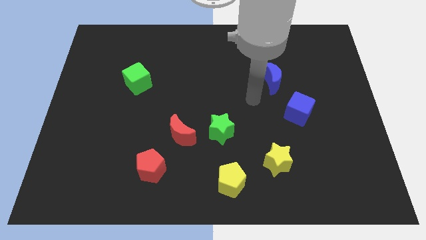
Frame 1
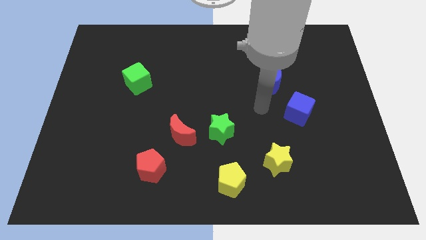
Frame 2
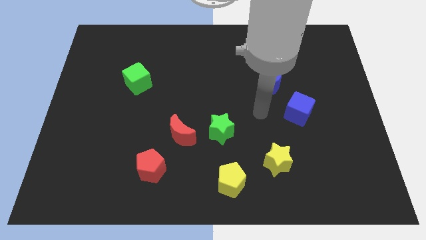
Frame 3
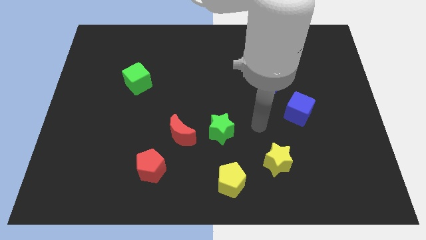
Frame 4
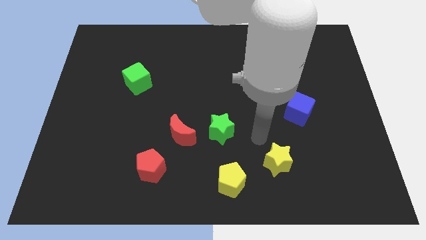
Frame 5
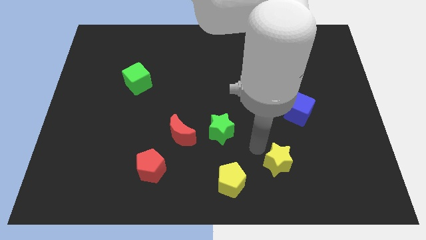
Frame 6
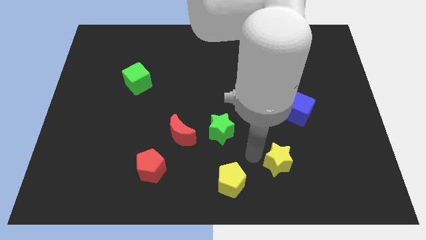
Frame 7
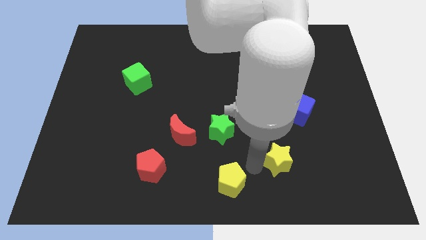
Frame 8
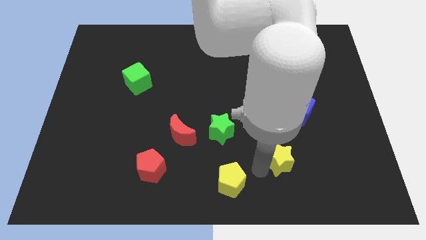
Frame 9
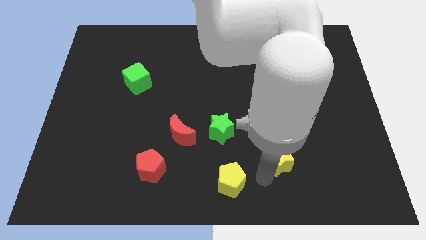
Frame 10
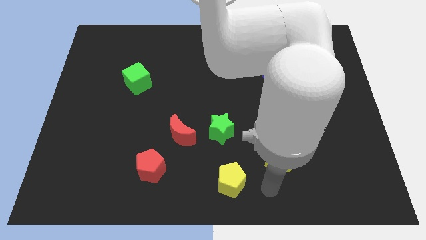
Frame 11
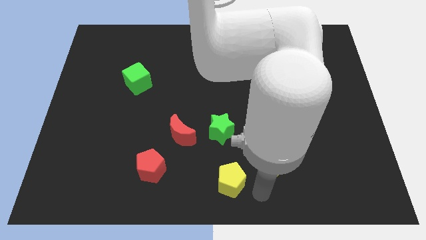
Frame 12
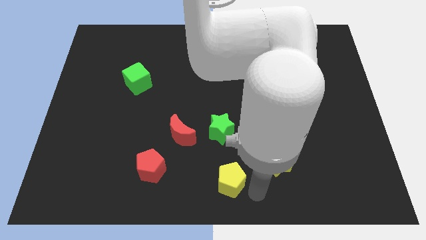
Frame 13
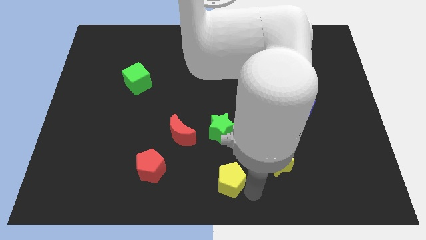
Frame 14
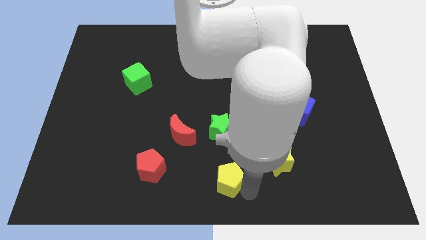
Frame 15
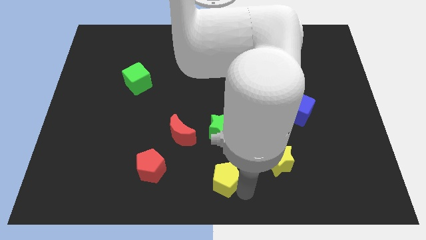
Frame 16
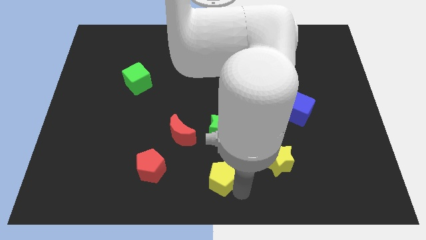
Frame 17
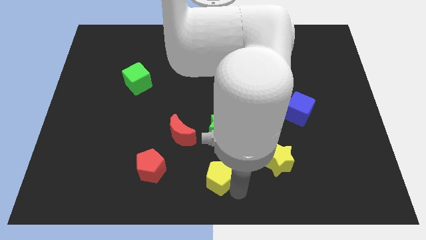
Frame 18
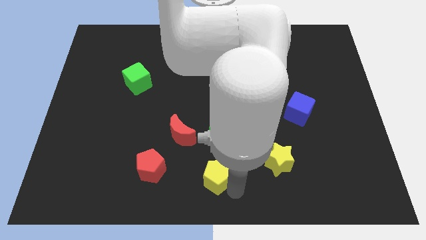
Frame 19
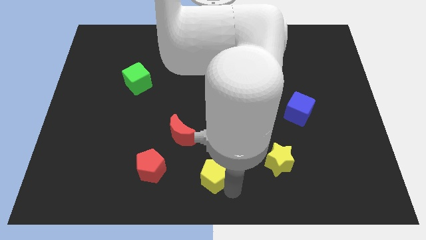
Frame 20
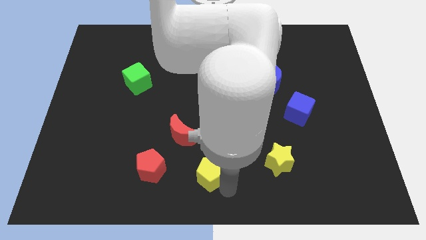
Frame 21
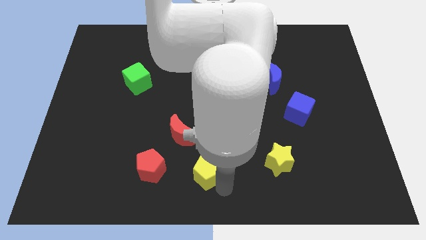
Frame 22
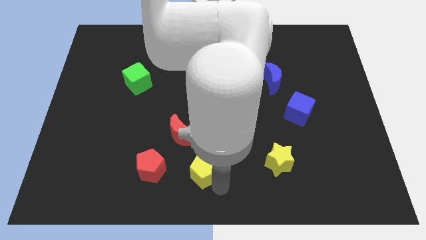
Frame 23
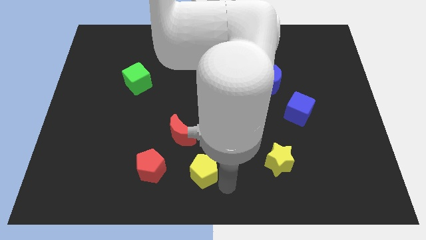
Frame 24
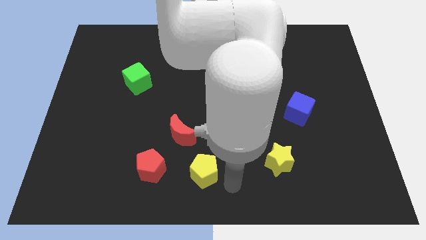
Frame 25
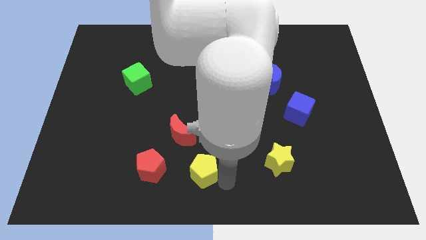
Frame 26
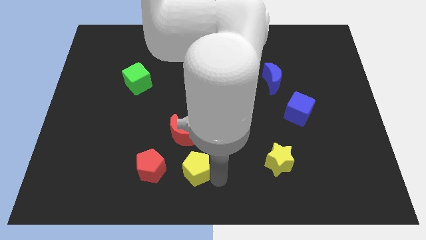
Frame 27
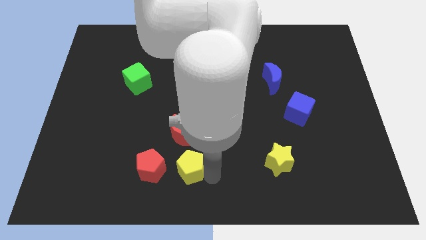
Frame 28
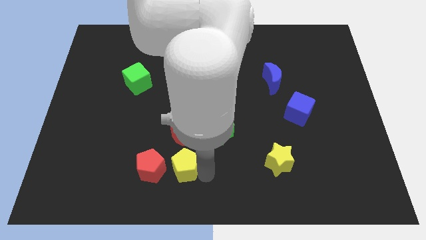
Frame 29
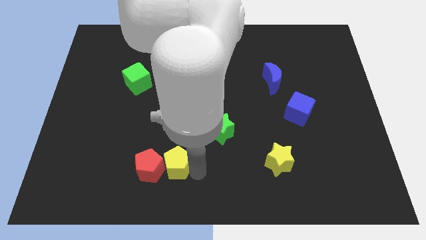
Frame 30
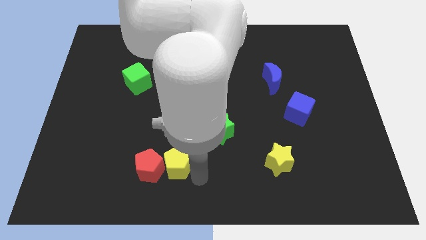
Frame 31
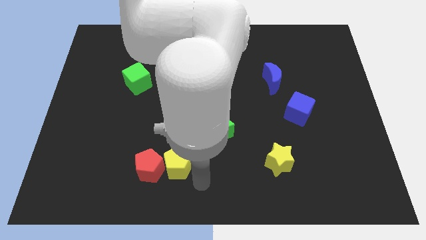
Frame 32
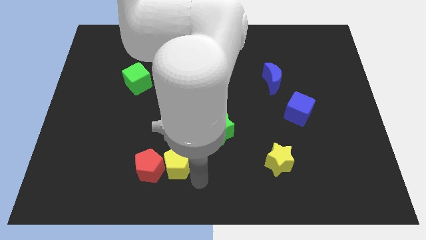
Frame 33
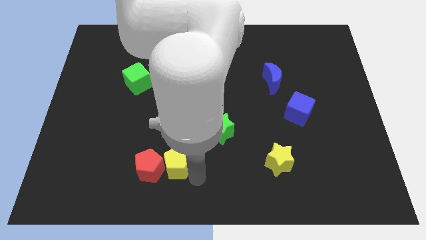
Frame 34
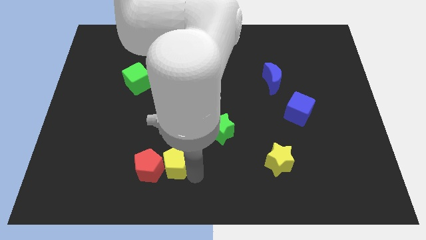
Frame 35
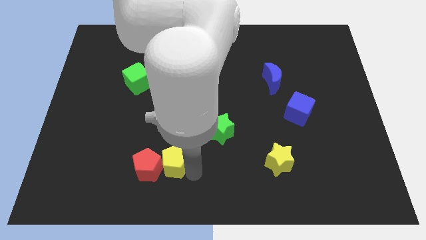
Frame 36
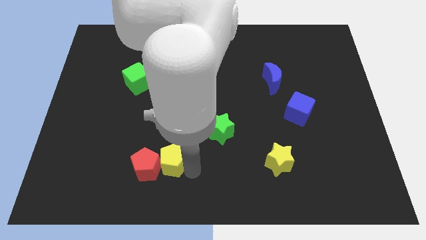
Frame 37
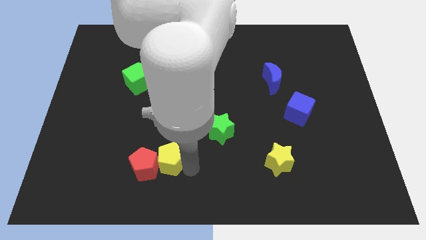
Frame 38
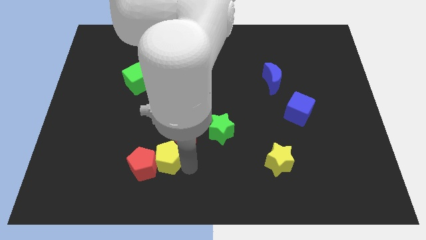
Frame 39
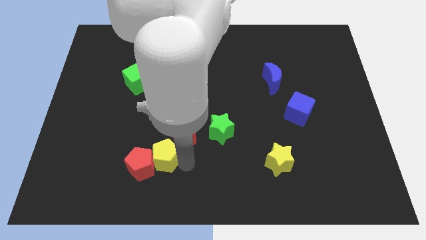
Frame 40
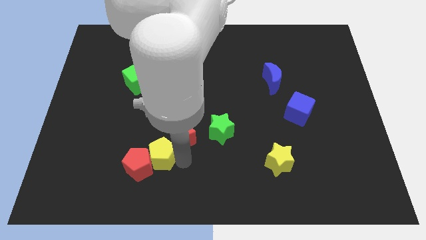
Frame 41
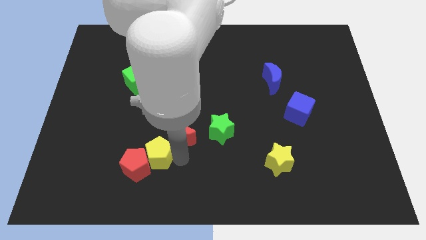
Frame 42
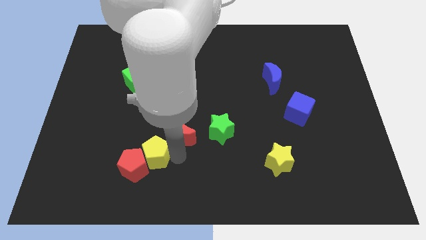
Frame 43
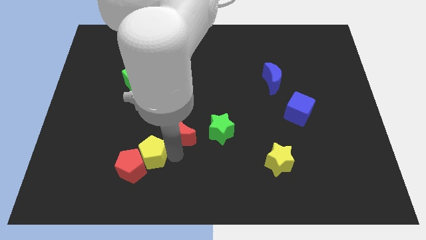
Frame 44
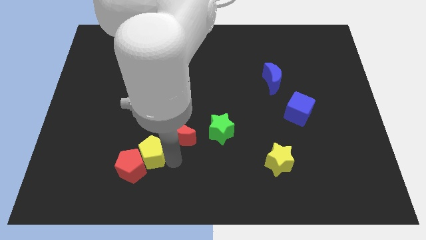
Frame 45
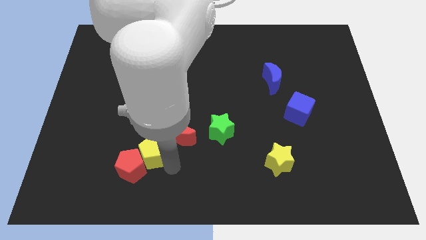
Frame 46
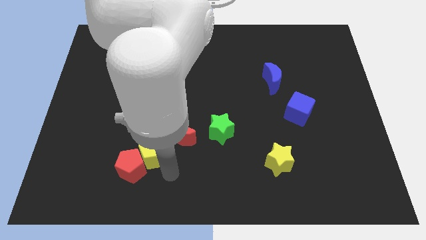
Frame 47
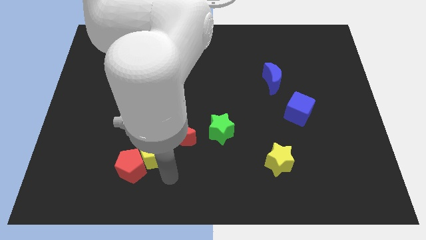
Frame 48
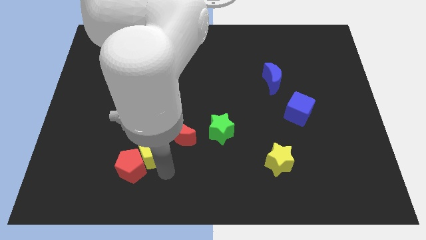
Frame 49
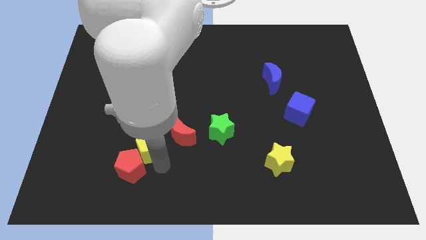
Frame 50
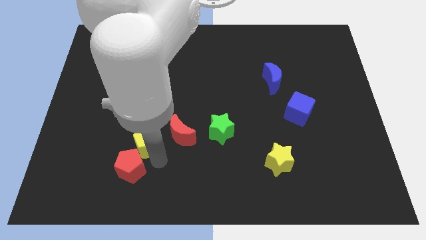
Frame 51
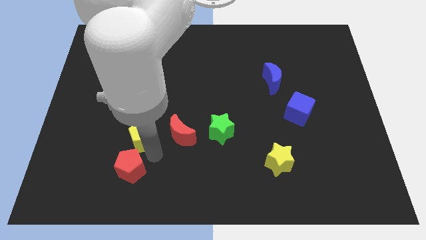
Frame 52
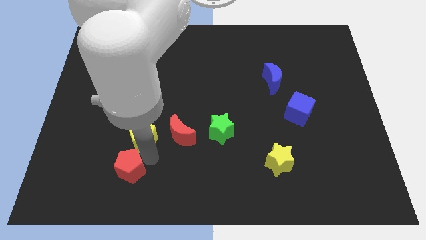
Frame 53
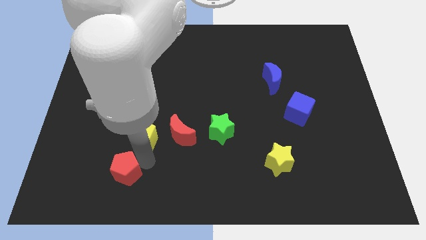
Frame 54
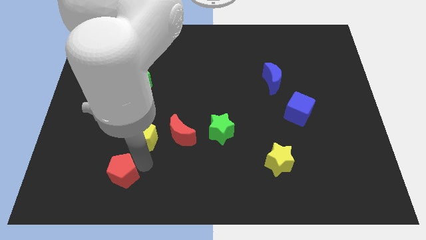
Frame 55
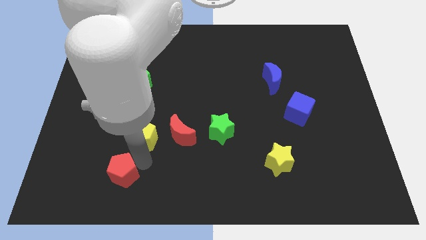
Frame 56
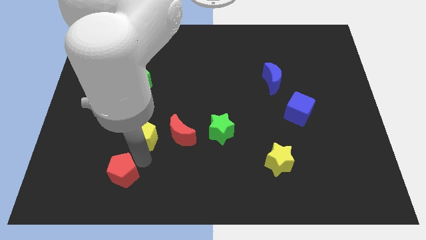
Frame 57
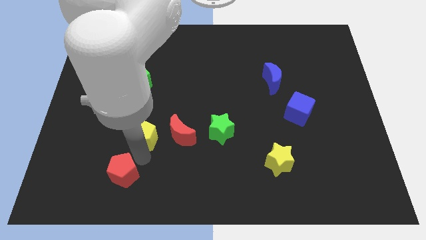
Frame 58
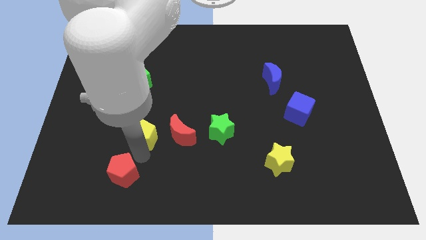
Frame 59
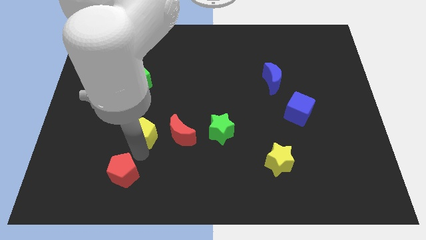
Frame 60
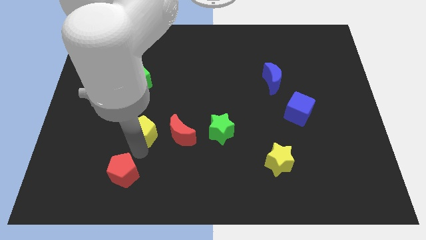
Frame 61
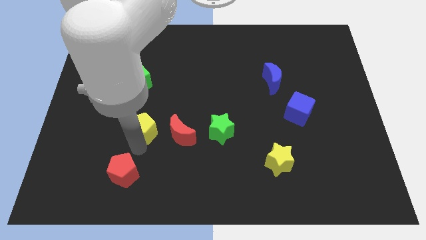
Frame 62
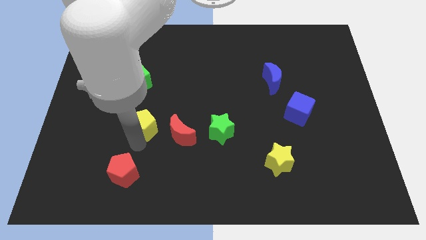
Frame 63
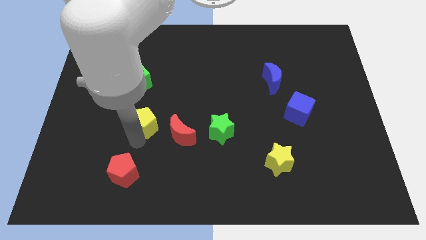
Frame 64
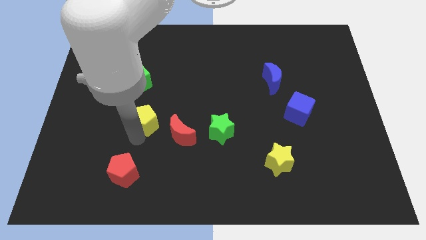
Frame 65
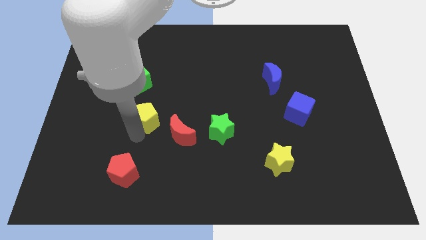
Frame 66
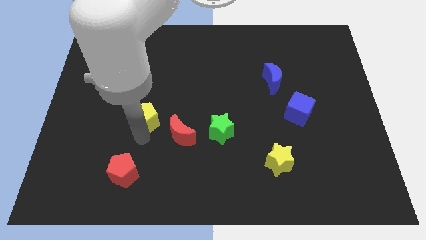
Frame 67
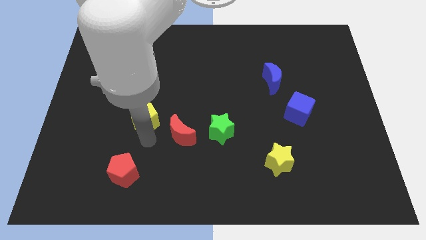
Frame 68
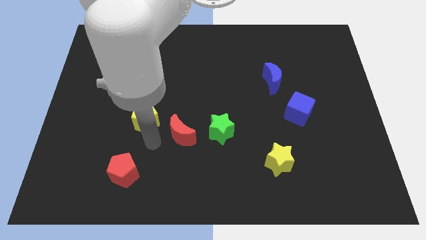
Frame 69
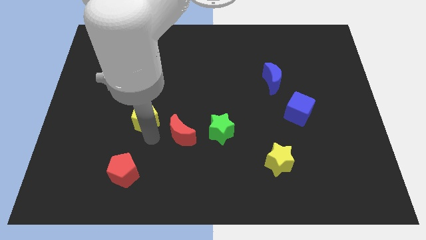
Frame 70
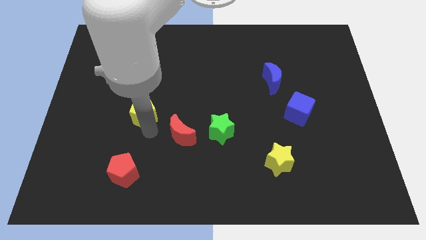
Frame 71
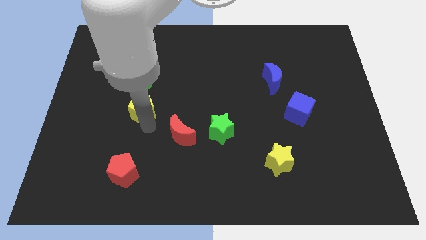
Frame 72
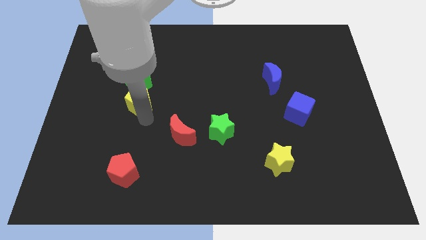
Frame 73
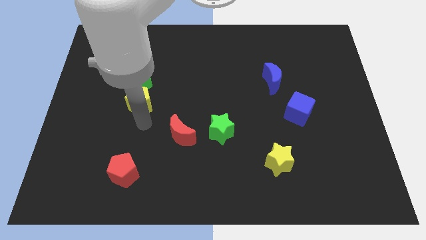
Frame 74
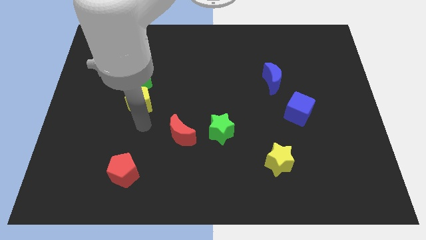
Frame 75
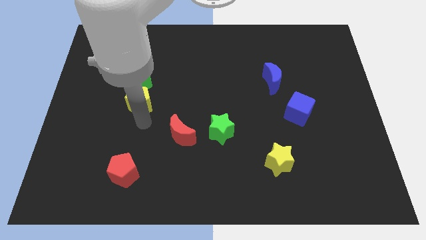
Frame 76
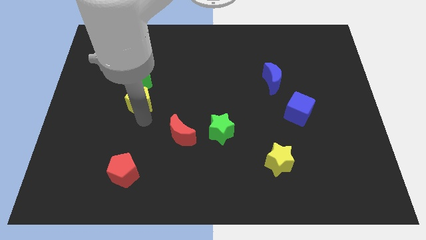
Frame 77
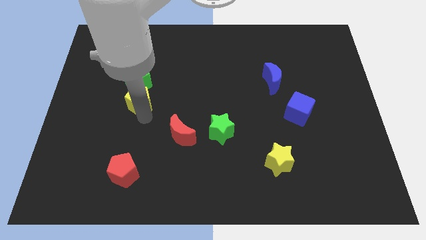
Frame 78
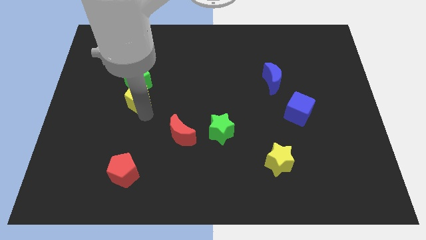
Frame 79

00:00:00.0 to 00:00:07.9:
slide the yellow pentagon close to the green cube
